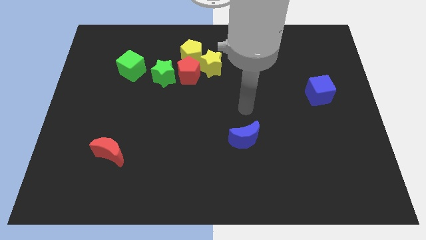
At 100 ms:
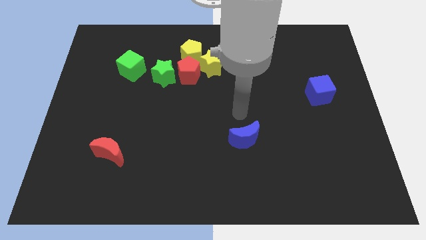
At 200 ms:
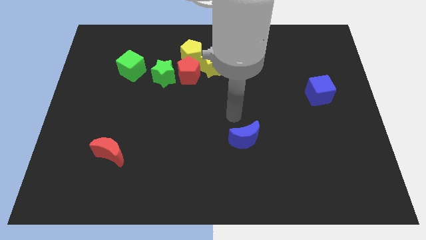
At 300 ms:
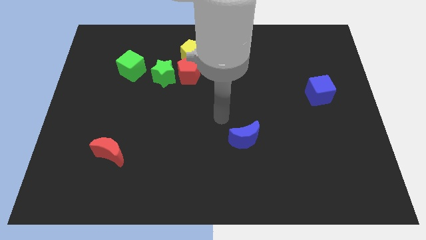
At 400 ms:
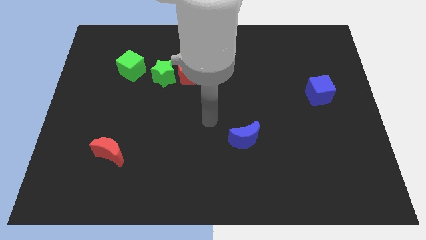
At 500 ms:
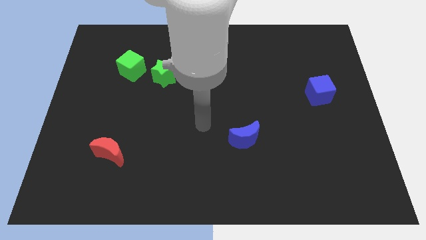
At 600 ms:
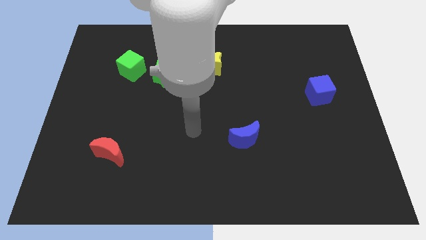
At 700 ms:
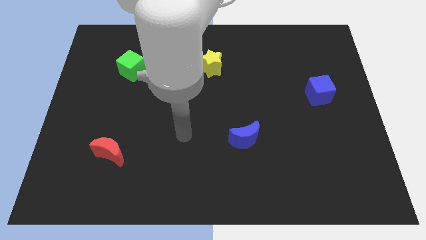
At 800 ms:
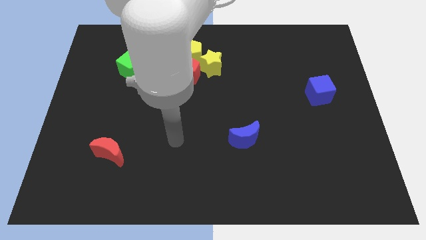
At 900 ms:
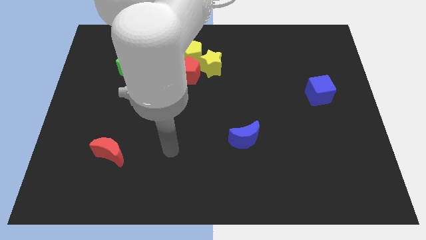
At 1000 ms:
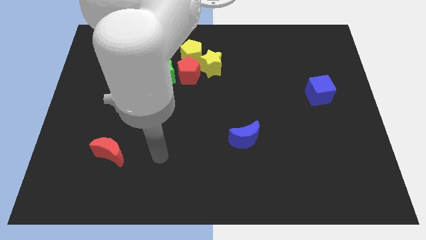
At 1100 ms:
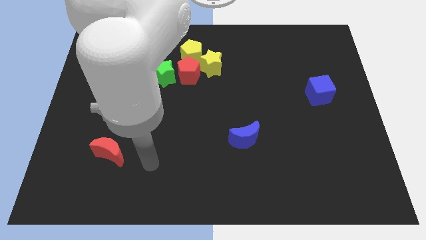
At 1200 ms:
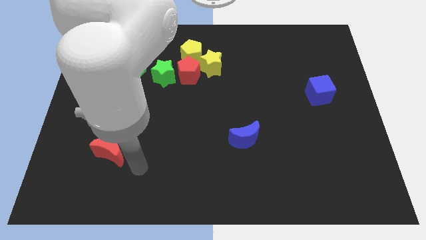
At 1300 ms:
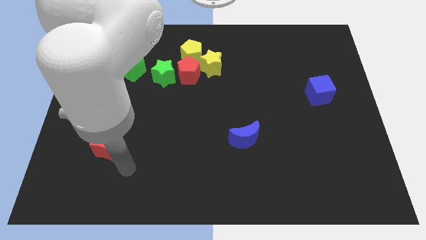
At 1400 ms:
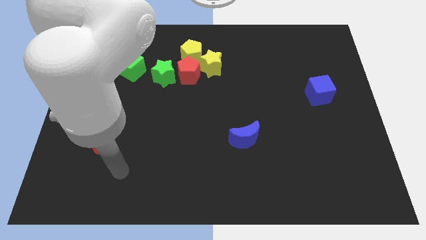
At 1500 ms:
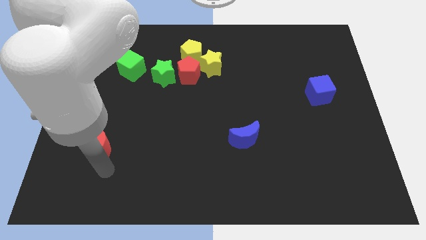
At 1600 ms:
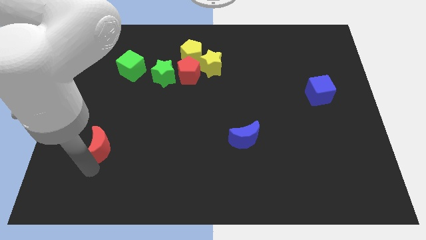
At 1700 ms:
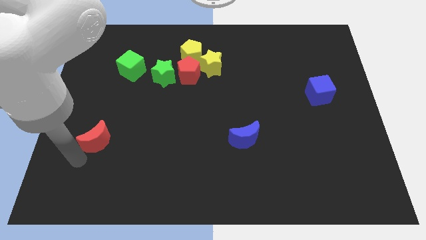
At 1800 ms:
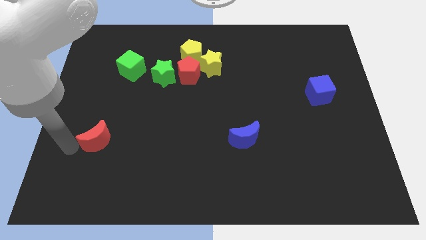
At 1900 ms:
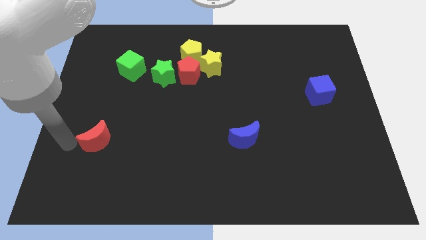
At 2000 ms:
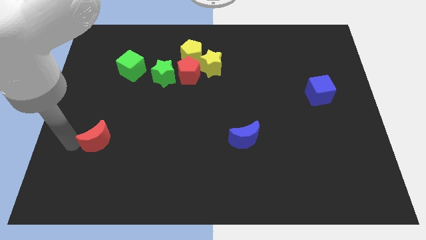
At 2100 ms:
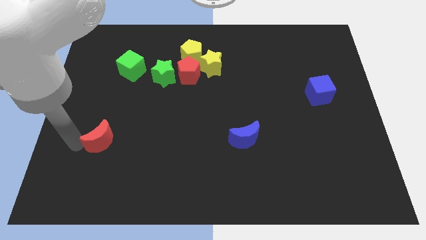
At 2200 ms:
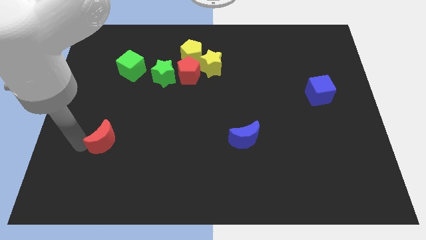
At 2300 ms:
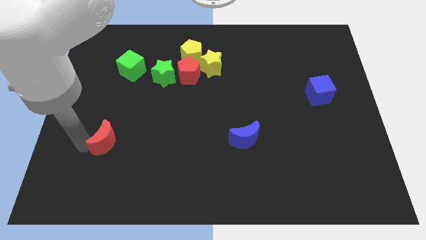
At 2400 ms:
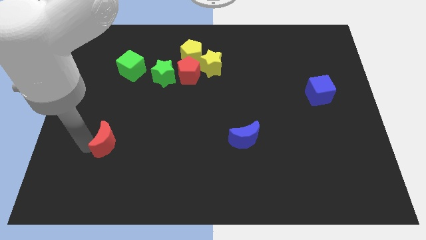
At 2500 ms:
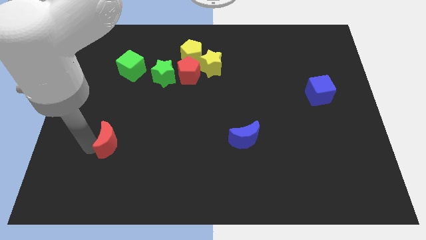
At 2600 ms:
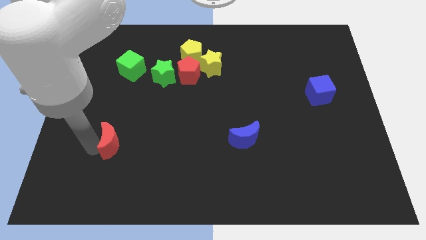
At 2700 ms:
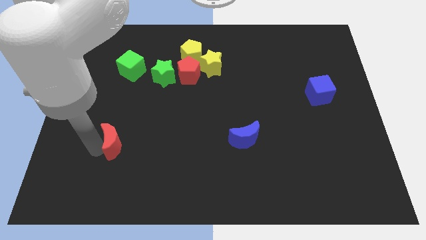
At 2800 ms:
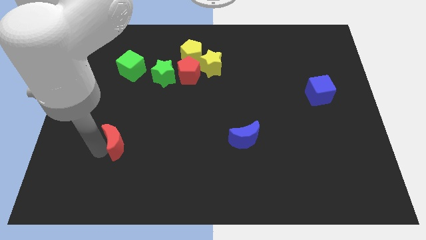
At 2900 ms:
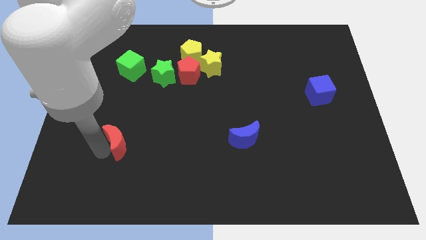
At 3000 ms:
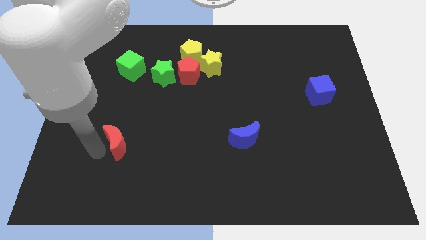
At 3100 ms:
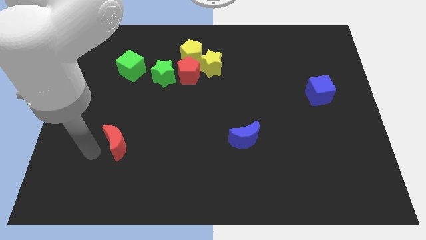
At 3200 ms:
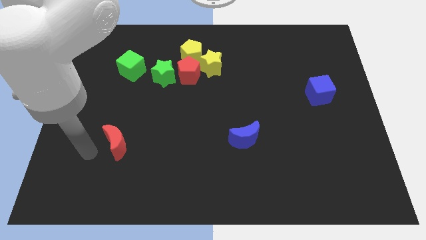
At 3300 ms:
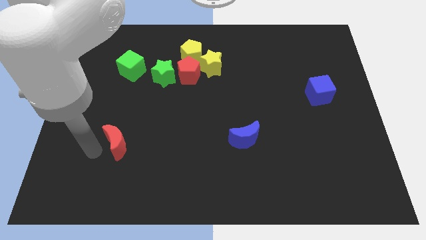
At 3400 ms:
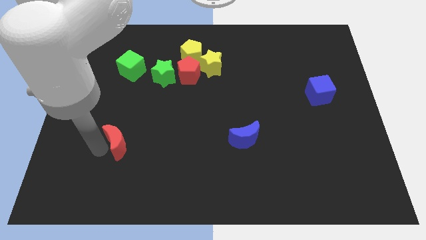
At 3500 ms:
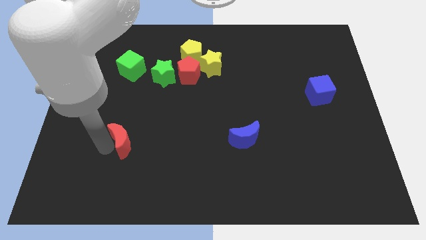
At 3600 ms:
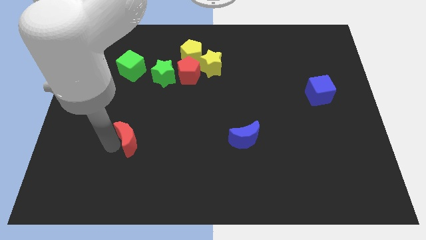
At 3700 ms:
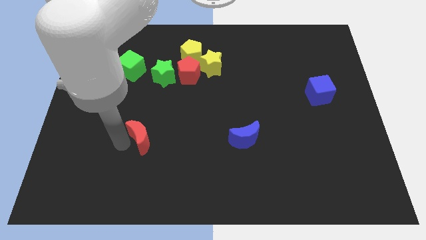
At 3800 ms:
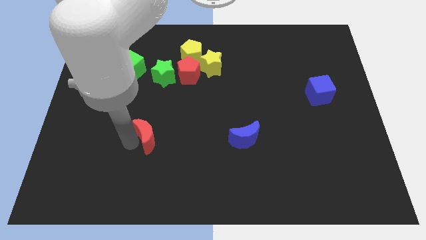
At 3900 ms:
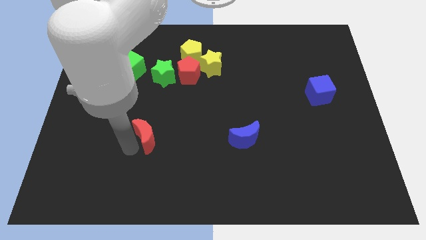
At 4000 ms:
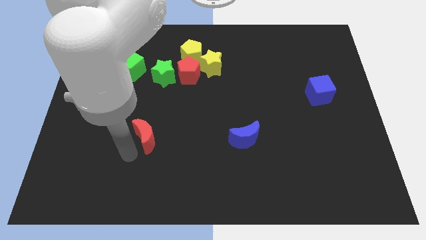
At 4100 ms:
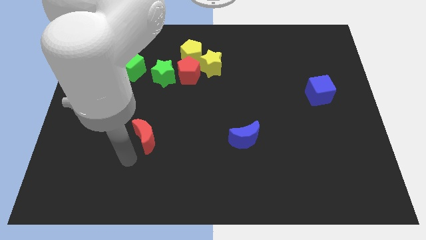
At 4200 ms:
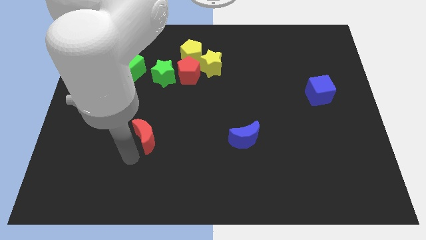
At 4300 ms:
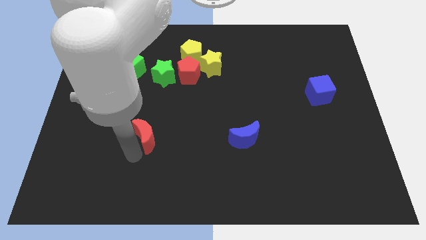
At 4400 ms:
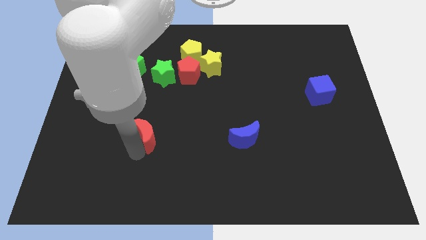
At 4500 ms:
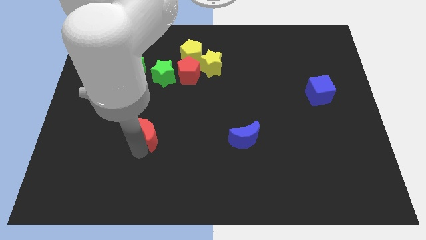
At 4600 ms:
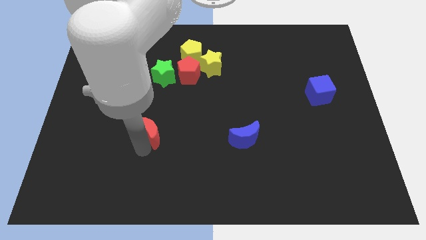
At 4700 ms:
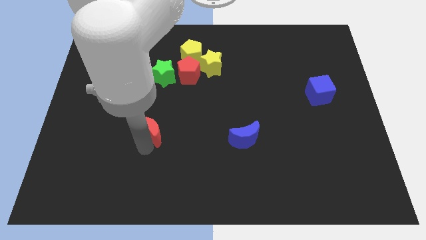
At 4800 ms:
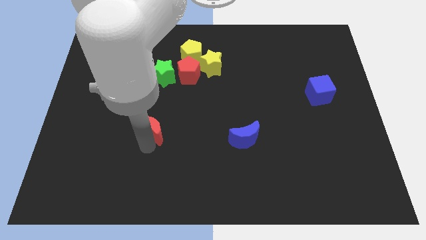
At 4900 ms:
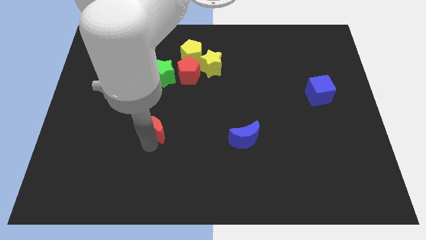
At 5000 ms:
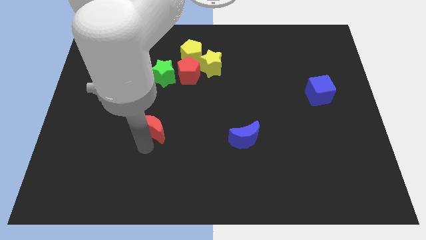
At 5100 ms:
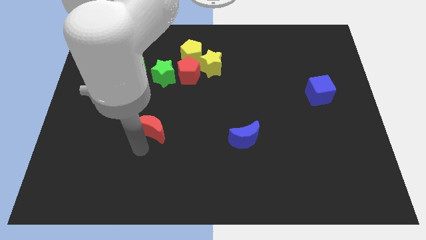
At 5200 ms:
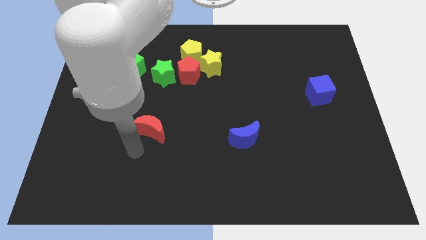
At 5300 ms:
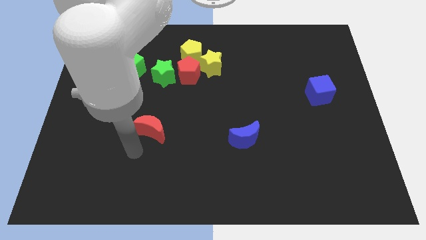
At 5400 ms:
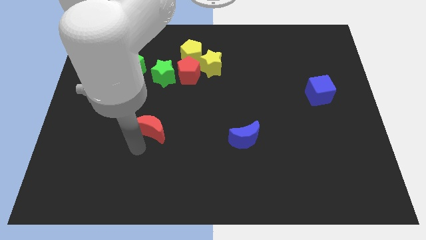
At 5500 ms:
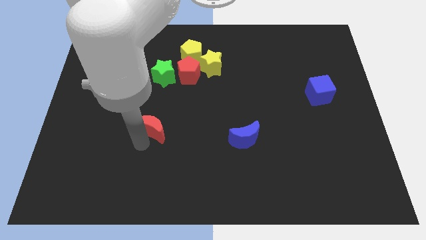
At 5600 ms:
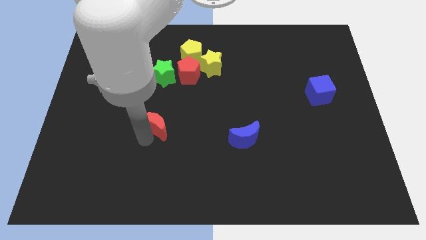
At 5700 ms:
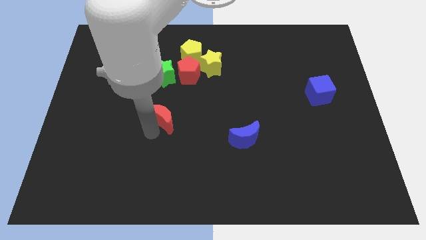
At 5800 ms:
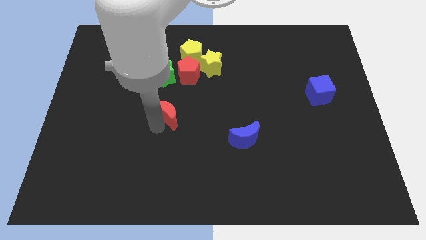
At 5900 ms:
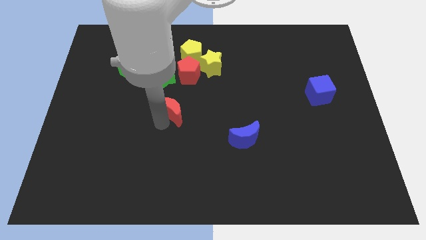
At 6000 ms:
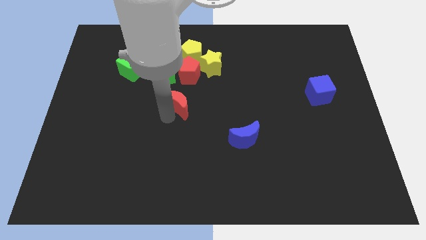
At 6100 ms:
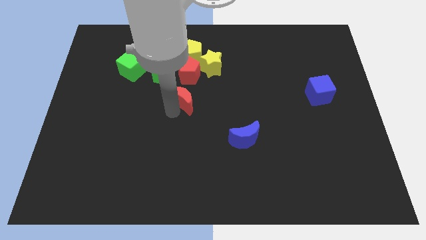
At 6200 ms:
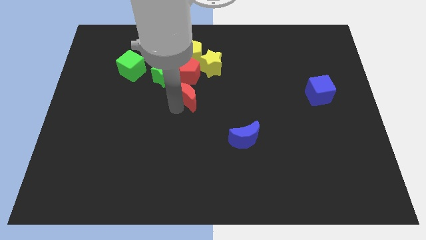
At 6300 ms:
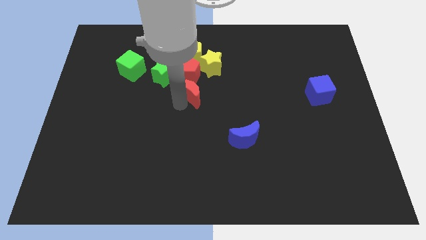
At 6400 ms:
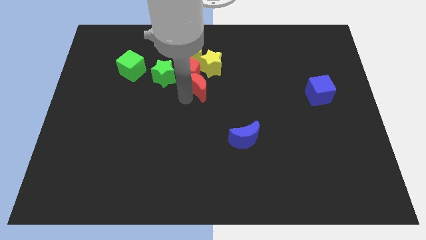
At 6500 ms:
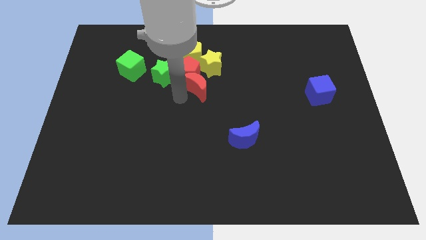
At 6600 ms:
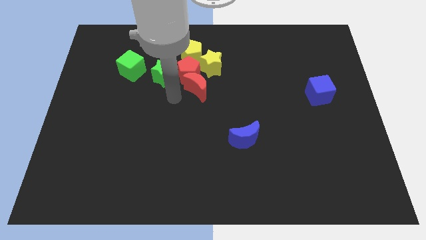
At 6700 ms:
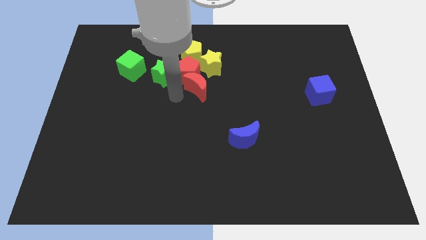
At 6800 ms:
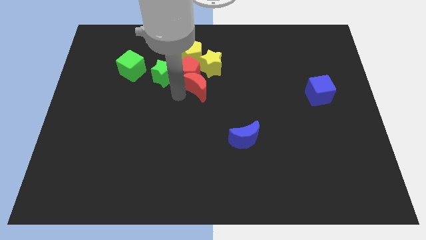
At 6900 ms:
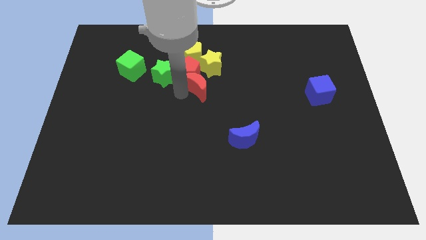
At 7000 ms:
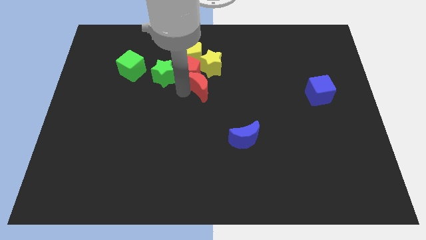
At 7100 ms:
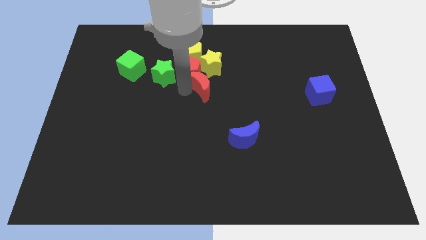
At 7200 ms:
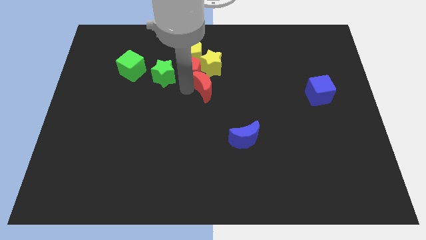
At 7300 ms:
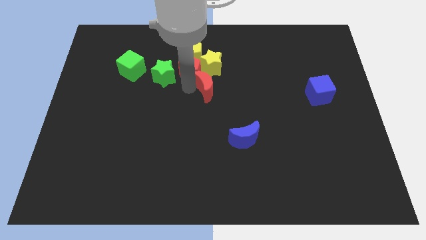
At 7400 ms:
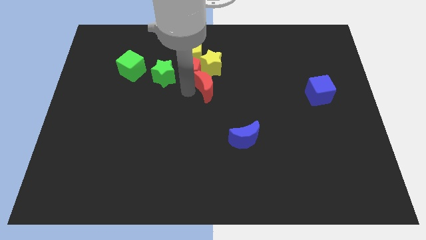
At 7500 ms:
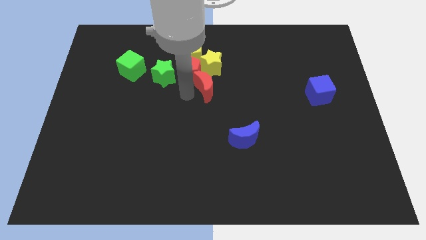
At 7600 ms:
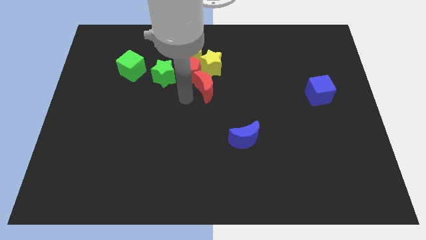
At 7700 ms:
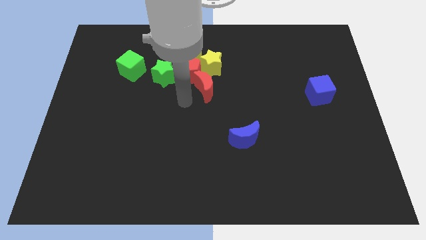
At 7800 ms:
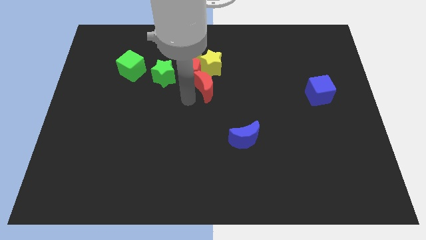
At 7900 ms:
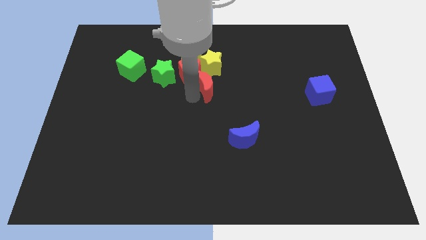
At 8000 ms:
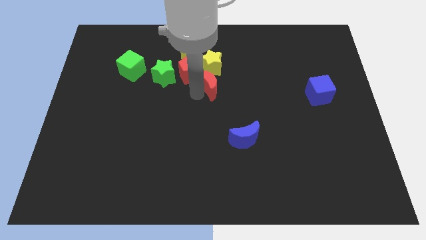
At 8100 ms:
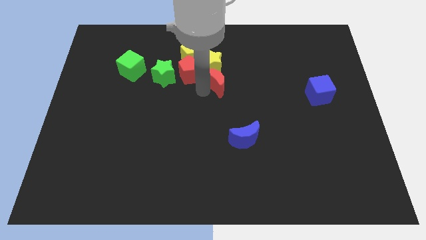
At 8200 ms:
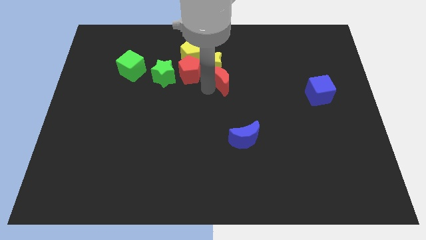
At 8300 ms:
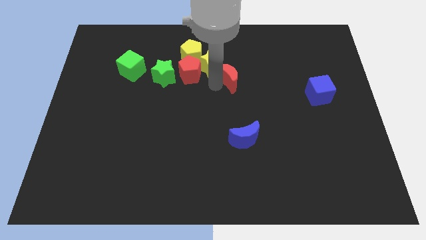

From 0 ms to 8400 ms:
move the red moon right of the yellow star
